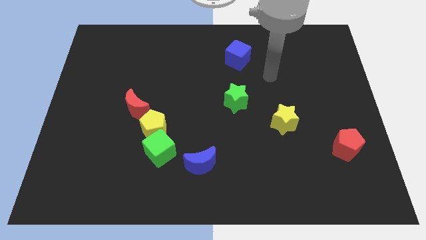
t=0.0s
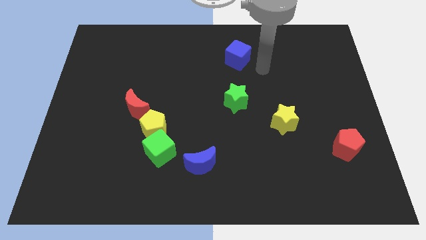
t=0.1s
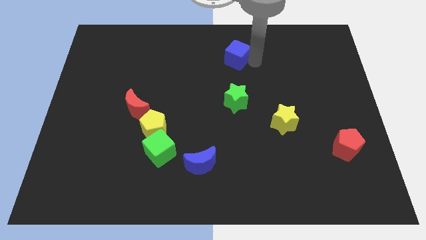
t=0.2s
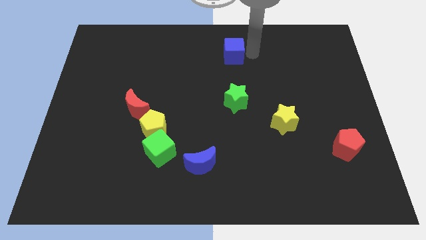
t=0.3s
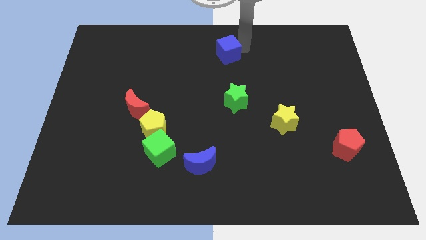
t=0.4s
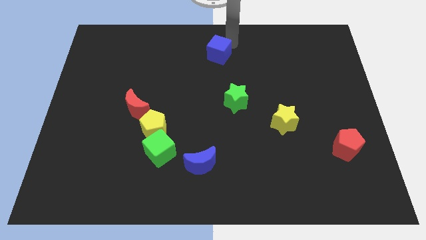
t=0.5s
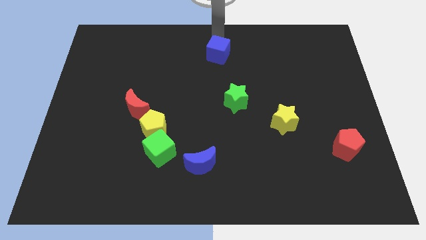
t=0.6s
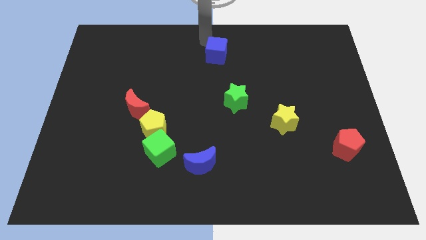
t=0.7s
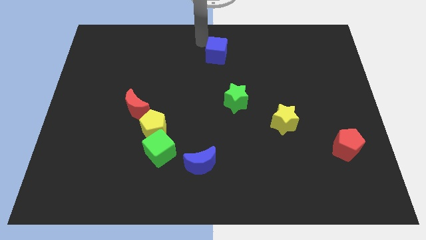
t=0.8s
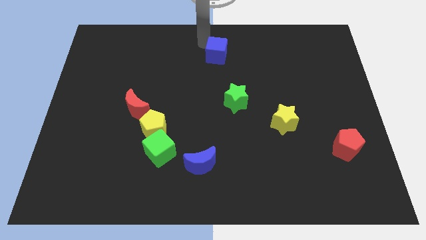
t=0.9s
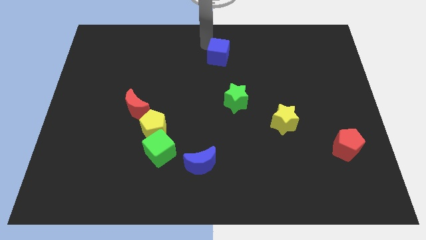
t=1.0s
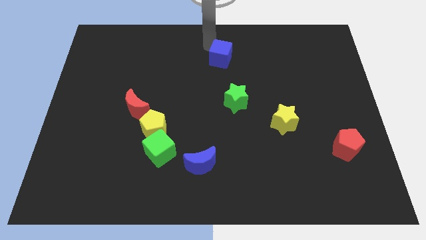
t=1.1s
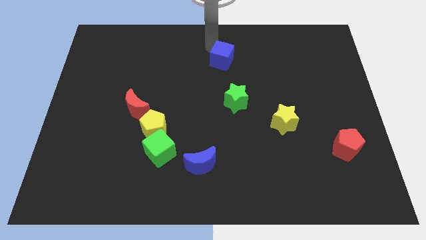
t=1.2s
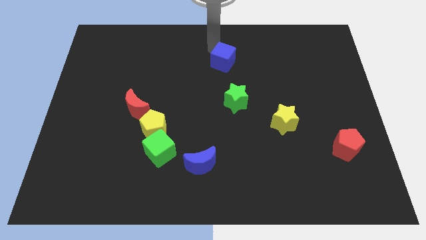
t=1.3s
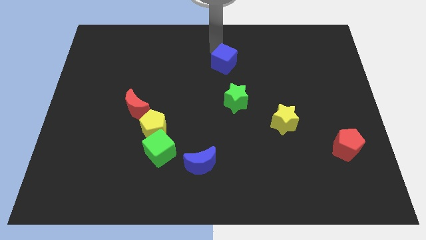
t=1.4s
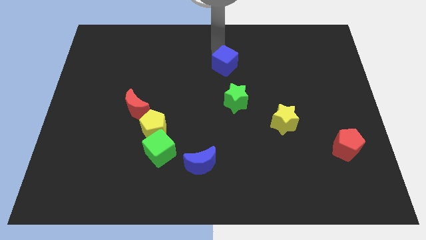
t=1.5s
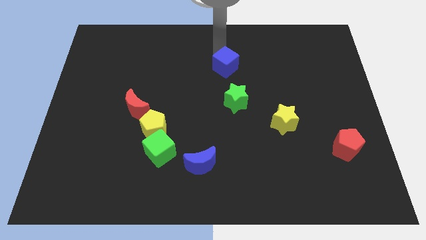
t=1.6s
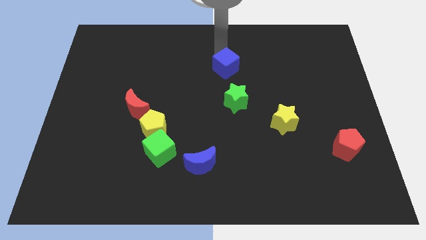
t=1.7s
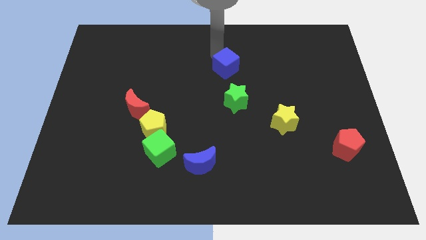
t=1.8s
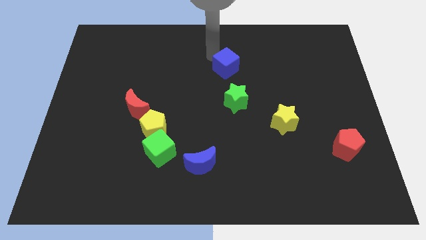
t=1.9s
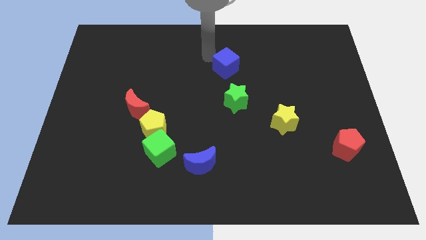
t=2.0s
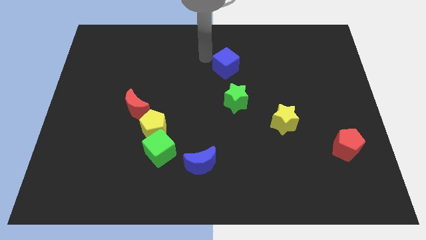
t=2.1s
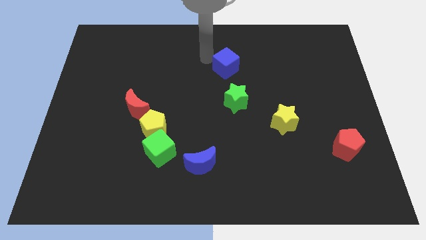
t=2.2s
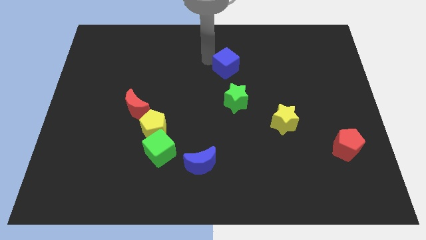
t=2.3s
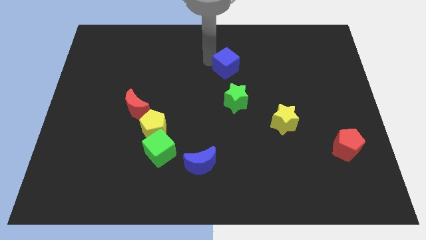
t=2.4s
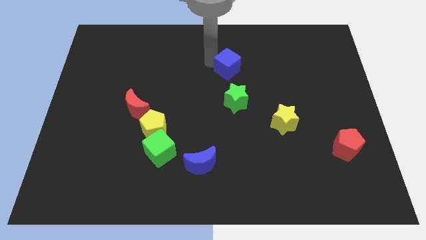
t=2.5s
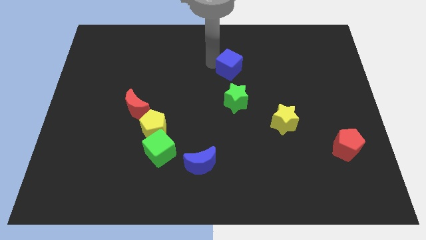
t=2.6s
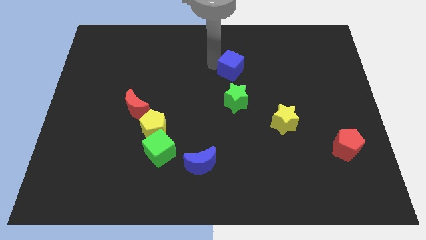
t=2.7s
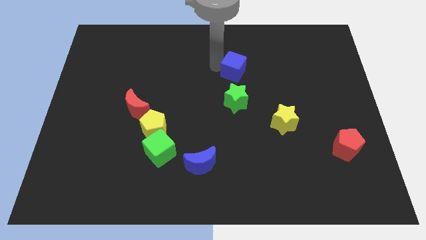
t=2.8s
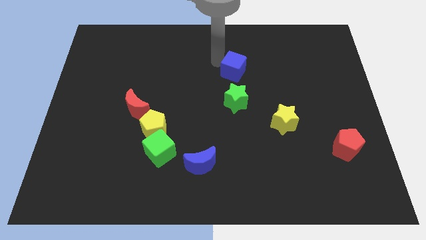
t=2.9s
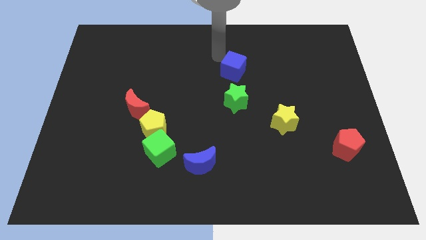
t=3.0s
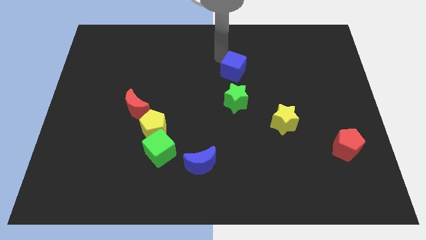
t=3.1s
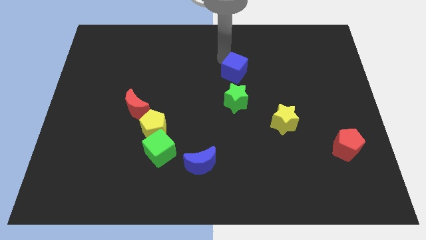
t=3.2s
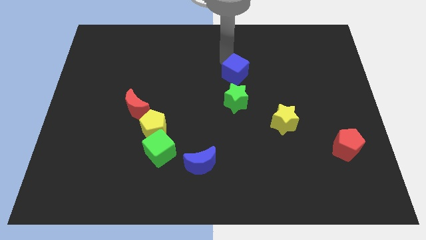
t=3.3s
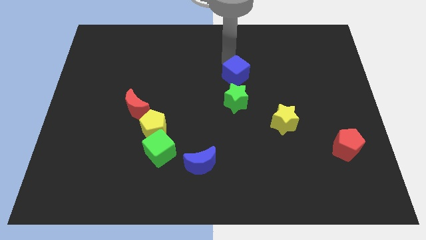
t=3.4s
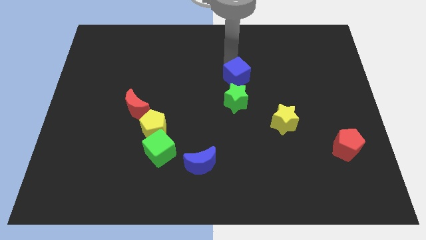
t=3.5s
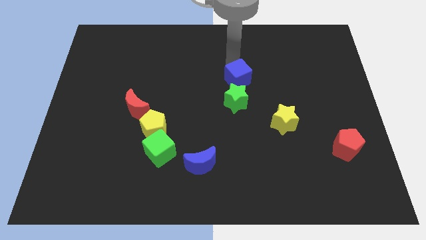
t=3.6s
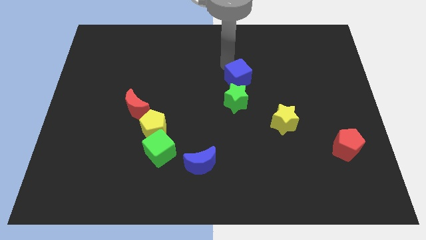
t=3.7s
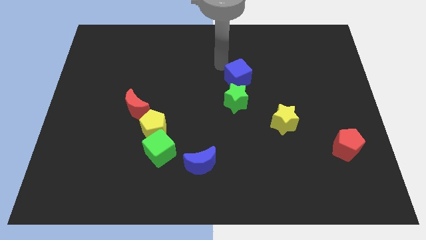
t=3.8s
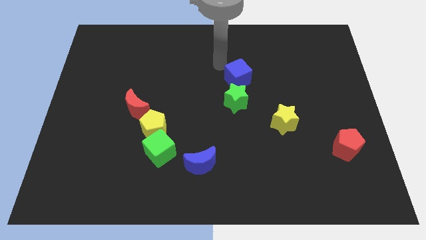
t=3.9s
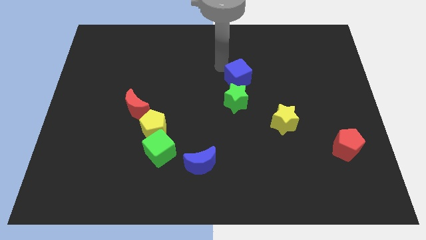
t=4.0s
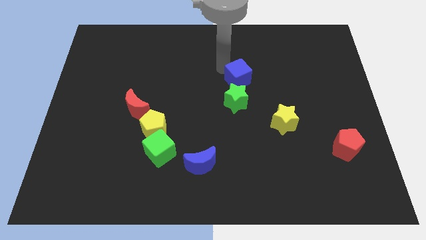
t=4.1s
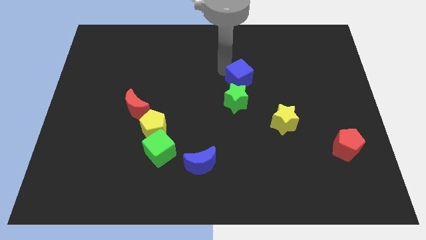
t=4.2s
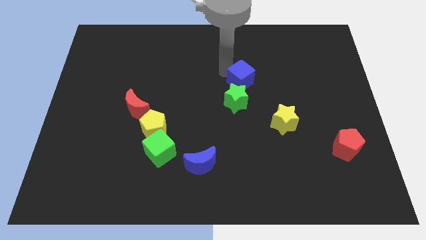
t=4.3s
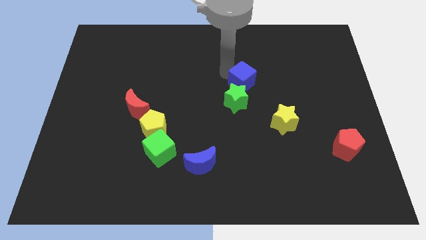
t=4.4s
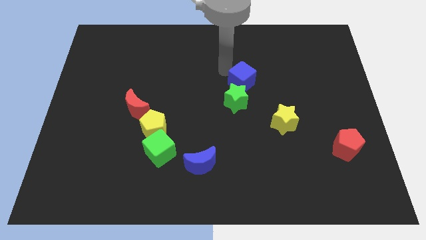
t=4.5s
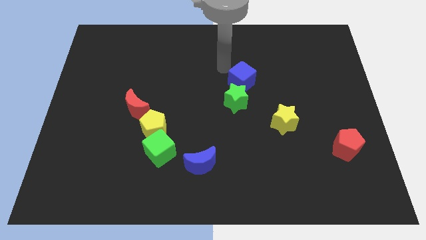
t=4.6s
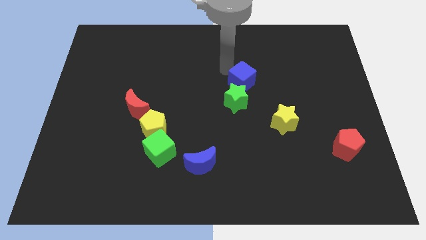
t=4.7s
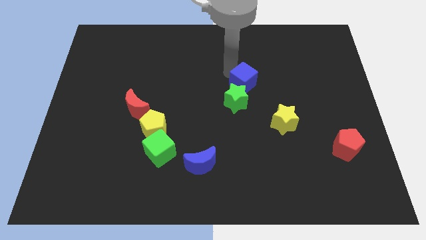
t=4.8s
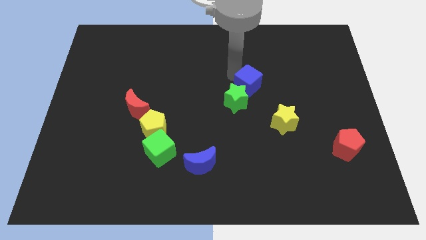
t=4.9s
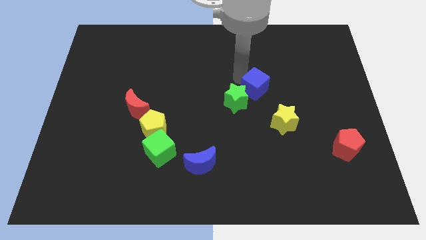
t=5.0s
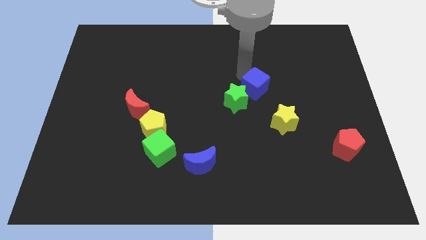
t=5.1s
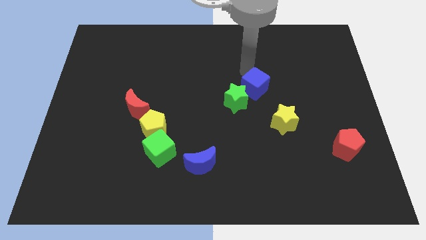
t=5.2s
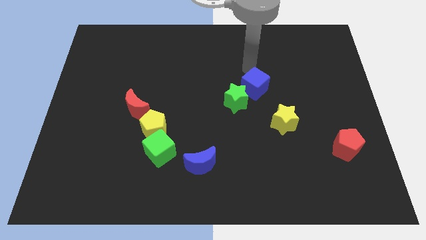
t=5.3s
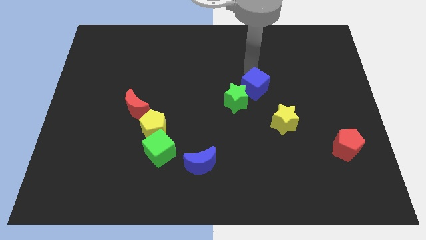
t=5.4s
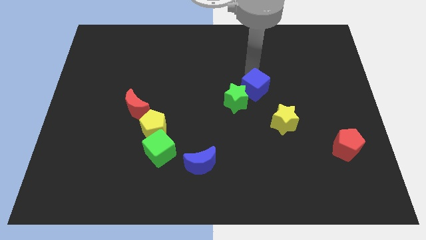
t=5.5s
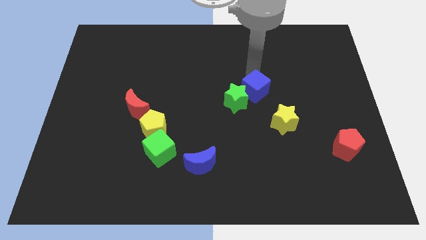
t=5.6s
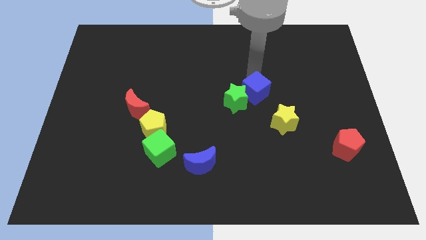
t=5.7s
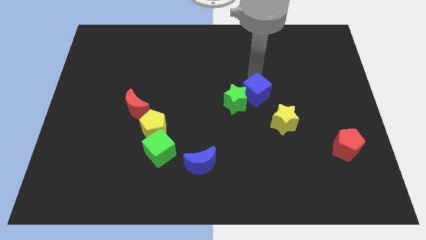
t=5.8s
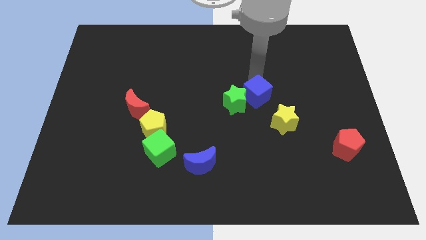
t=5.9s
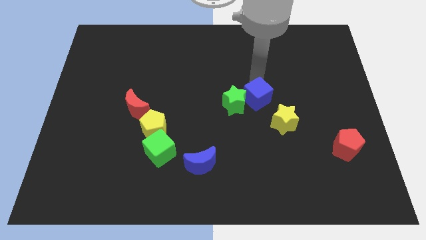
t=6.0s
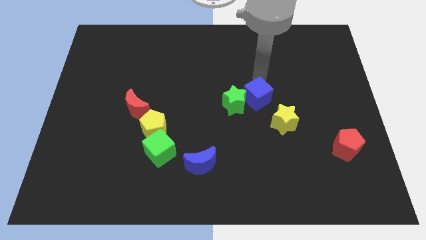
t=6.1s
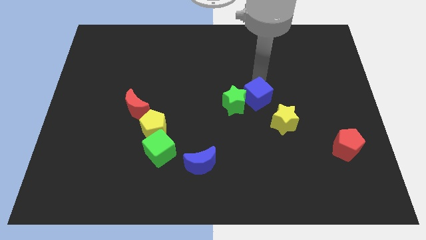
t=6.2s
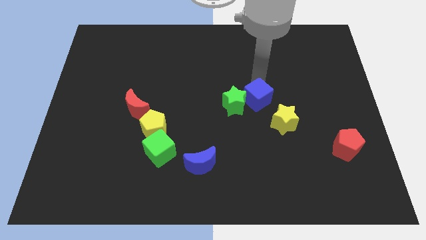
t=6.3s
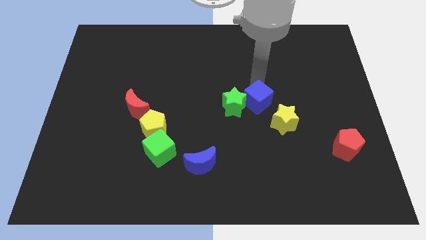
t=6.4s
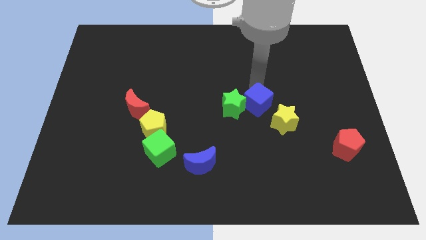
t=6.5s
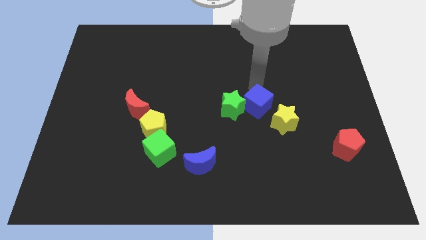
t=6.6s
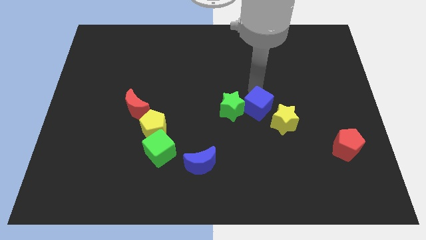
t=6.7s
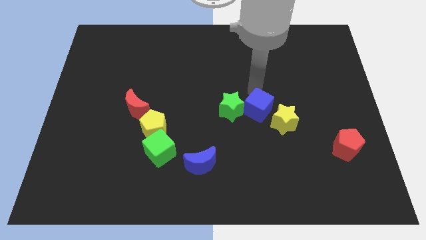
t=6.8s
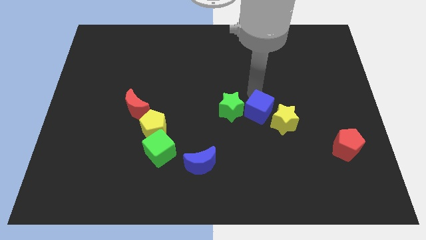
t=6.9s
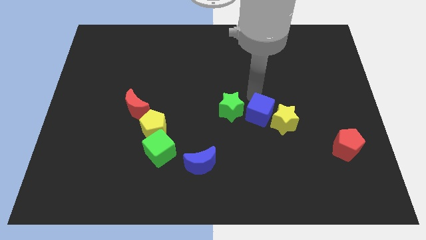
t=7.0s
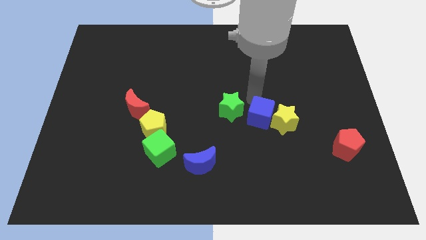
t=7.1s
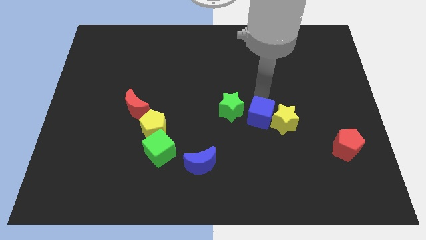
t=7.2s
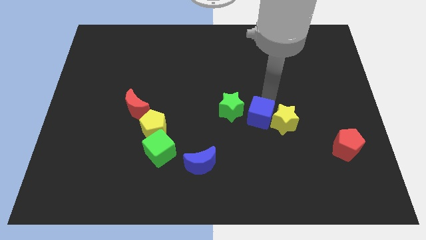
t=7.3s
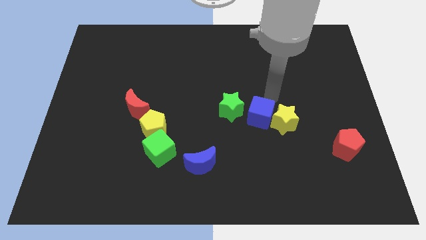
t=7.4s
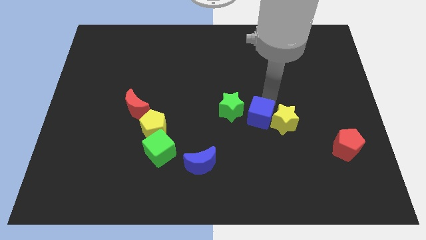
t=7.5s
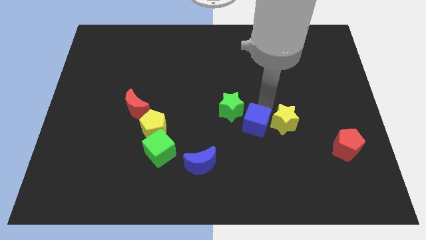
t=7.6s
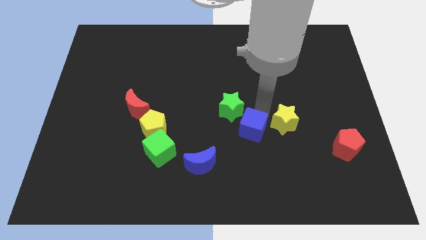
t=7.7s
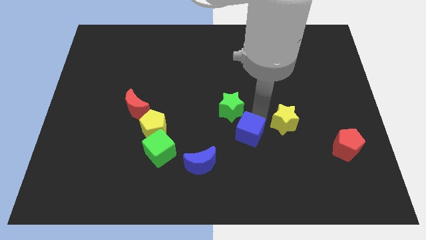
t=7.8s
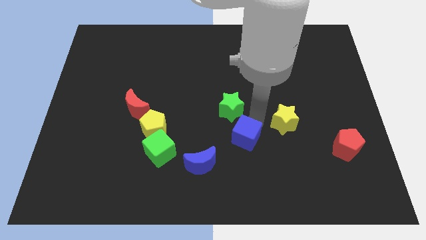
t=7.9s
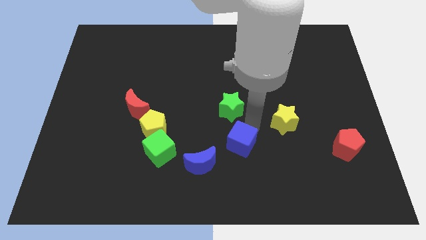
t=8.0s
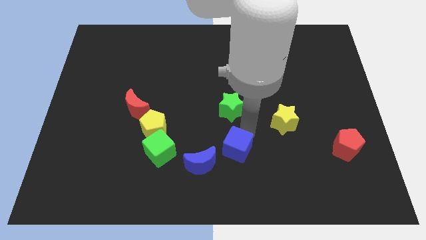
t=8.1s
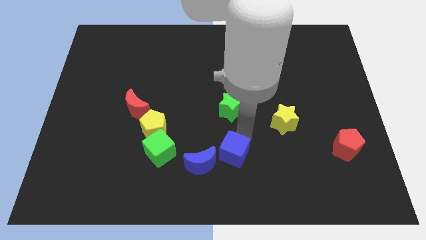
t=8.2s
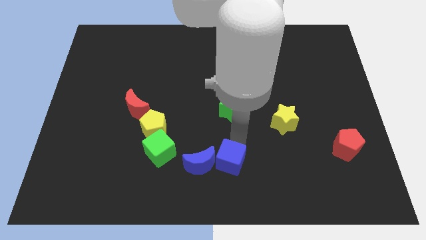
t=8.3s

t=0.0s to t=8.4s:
put the blue cube to the bottom side
